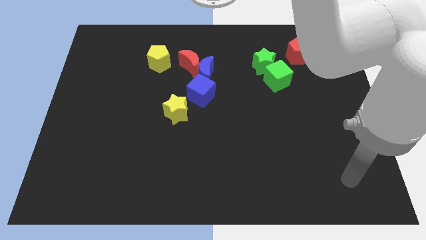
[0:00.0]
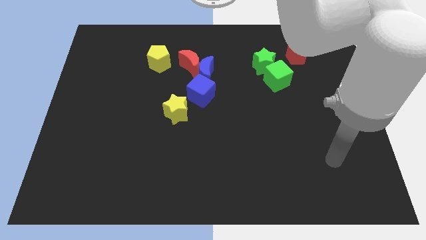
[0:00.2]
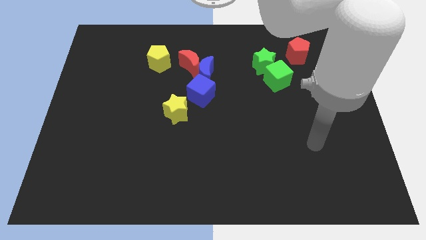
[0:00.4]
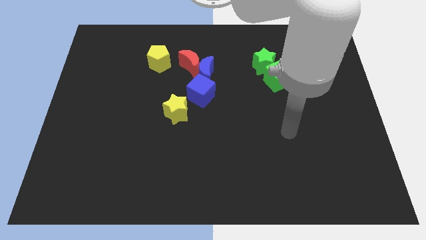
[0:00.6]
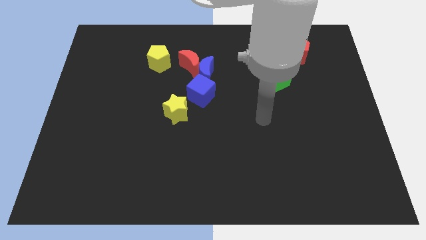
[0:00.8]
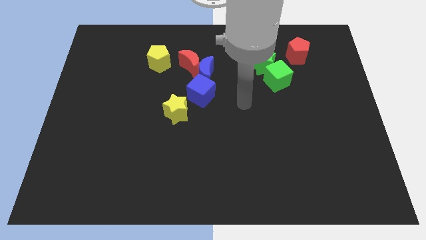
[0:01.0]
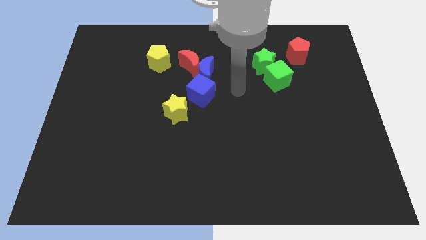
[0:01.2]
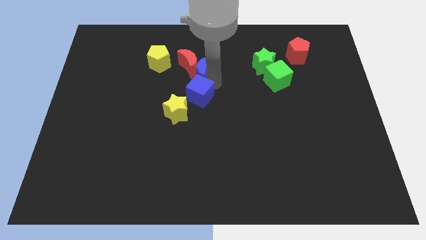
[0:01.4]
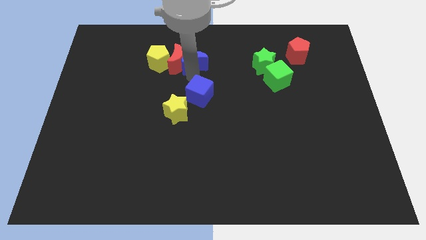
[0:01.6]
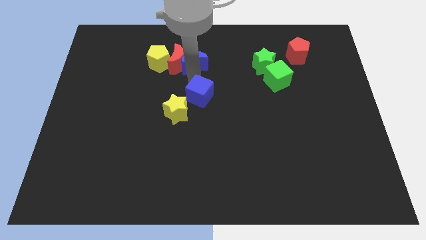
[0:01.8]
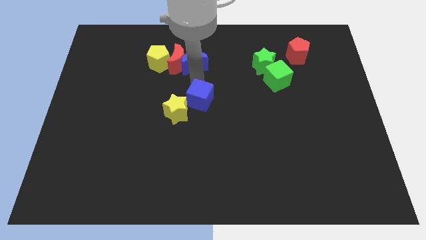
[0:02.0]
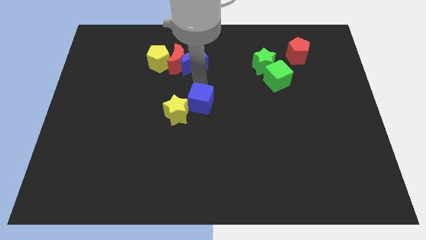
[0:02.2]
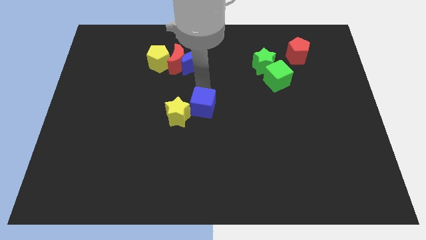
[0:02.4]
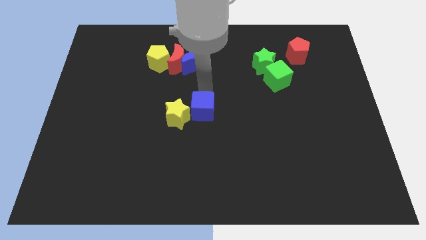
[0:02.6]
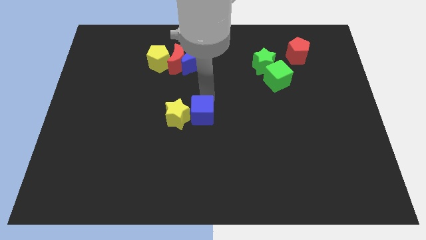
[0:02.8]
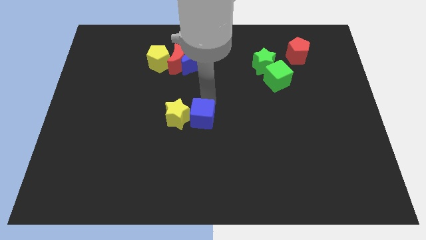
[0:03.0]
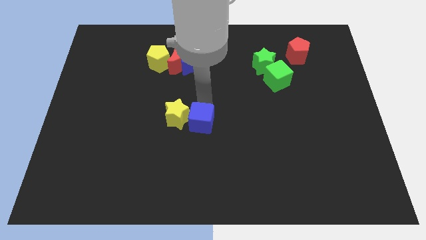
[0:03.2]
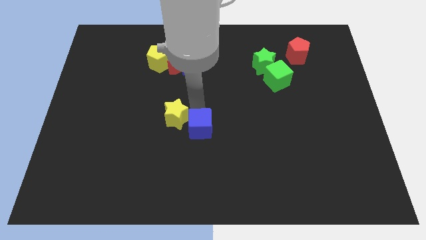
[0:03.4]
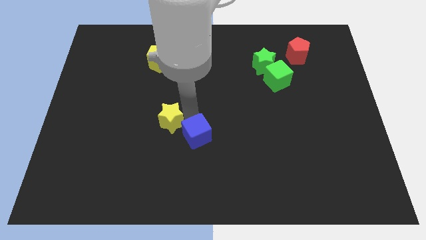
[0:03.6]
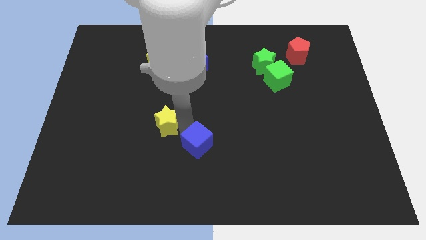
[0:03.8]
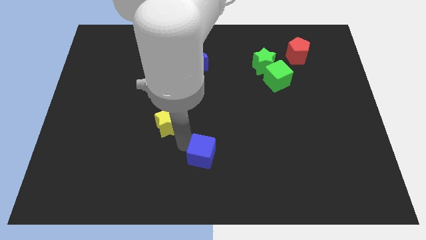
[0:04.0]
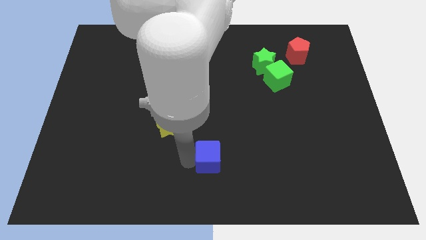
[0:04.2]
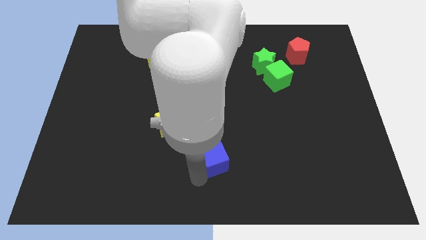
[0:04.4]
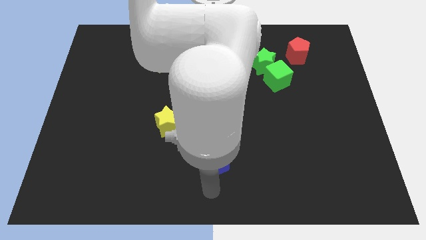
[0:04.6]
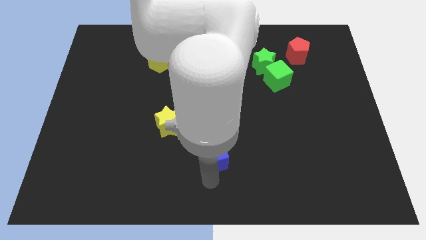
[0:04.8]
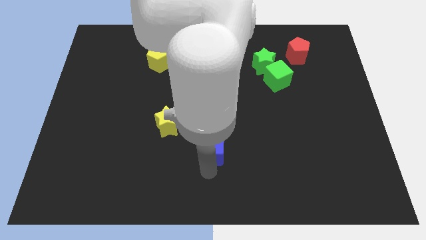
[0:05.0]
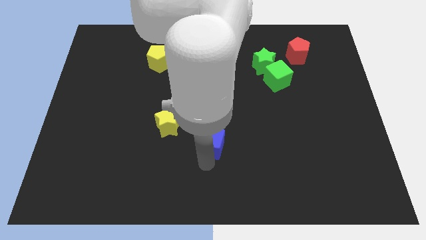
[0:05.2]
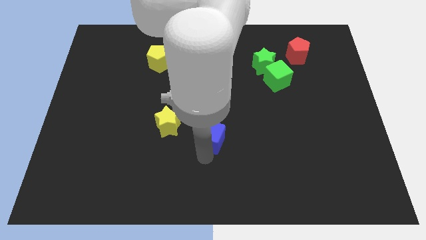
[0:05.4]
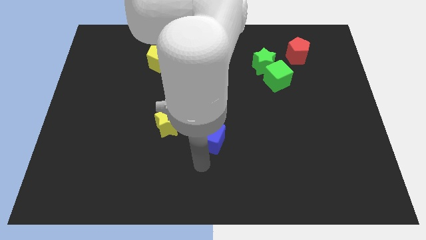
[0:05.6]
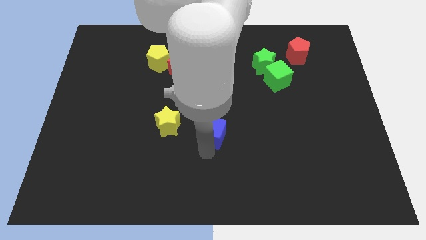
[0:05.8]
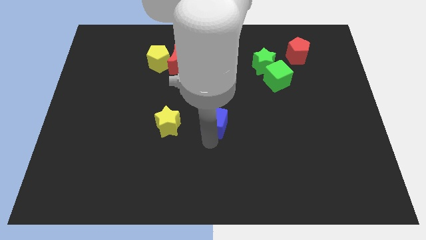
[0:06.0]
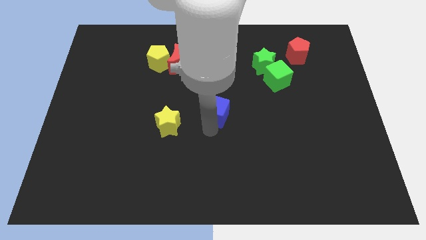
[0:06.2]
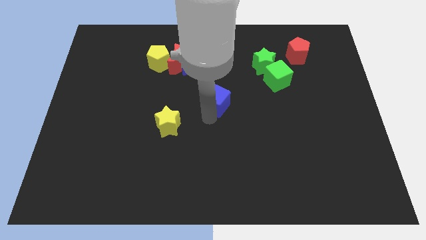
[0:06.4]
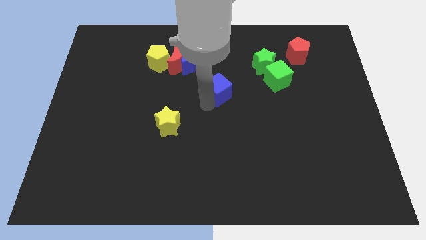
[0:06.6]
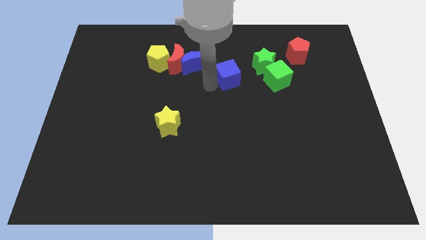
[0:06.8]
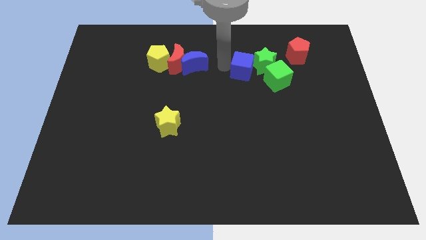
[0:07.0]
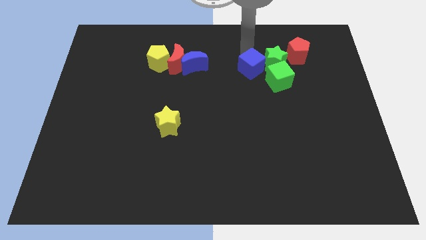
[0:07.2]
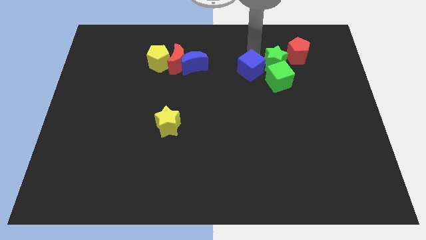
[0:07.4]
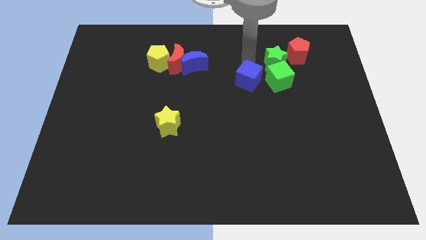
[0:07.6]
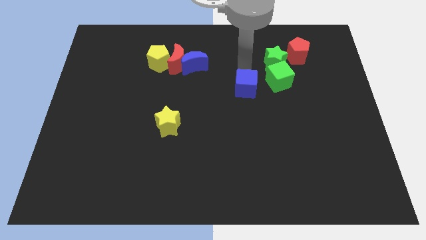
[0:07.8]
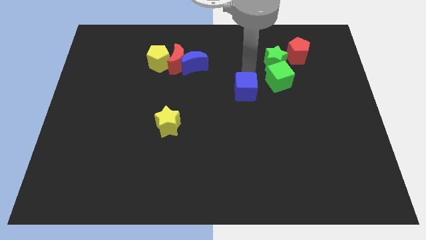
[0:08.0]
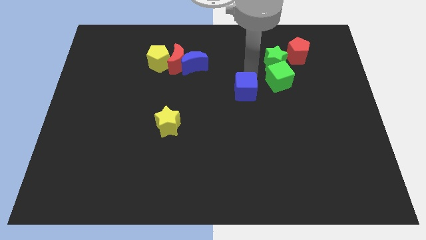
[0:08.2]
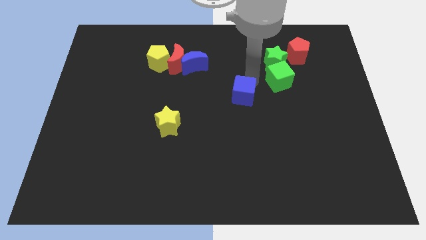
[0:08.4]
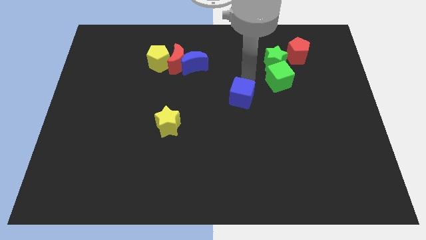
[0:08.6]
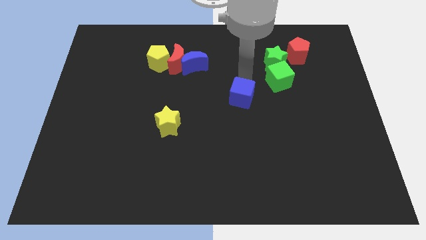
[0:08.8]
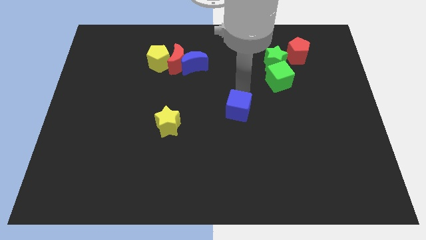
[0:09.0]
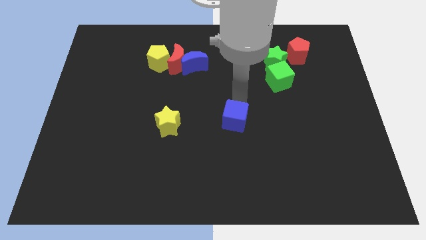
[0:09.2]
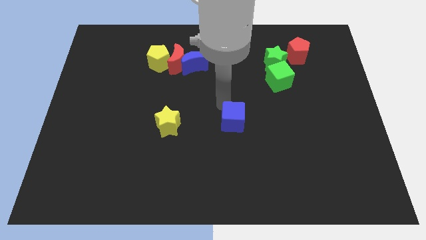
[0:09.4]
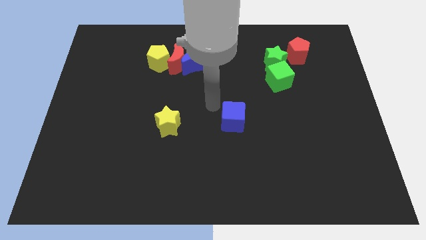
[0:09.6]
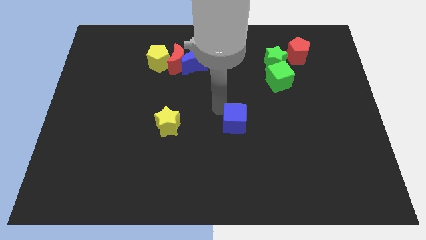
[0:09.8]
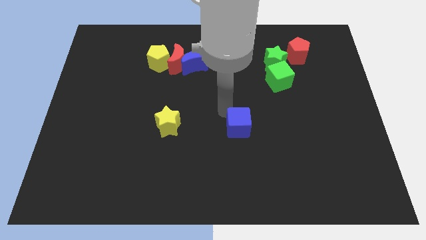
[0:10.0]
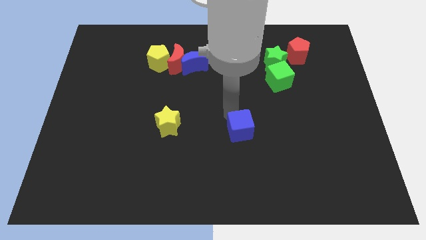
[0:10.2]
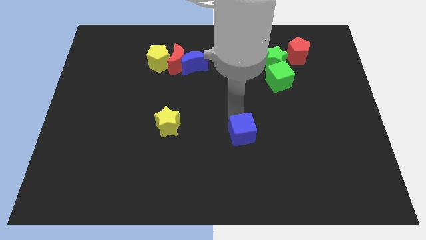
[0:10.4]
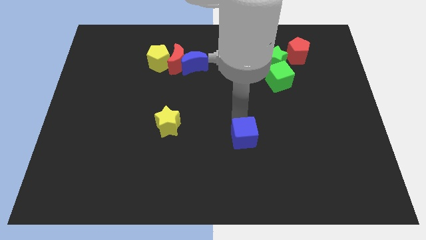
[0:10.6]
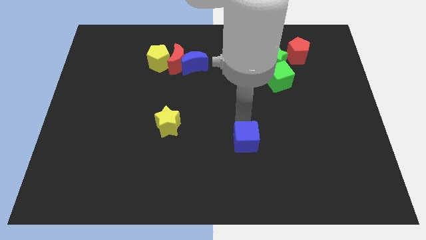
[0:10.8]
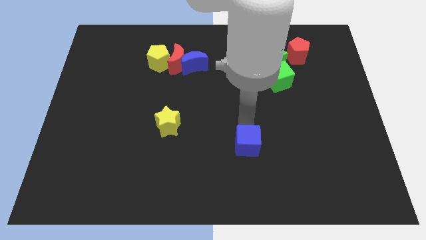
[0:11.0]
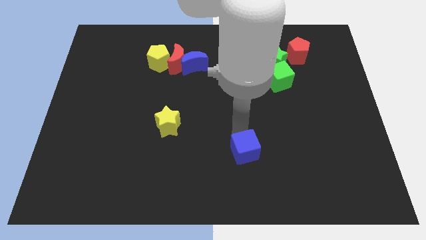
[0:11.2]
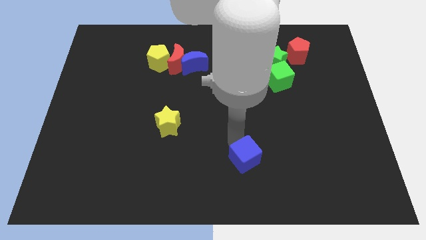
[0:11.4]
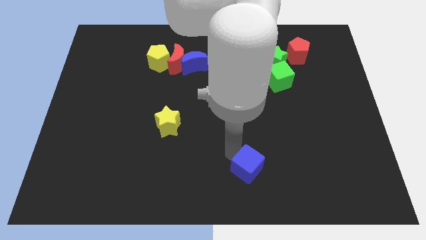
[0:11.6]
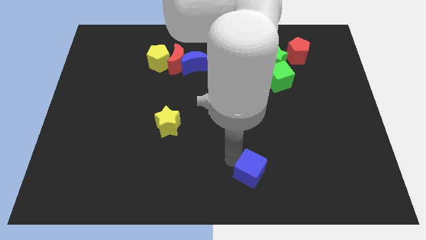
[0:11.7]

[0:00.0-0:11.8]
move the blue cube downwards and to the right

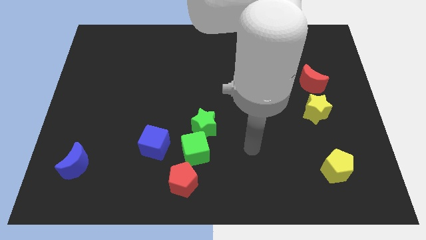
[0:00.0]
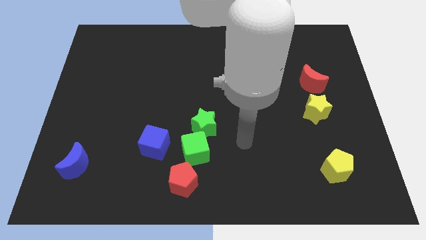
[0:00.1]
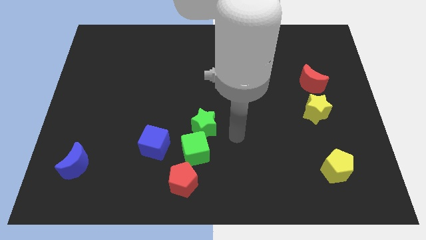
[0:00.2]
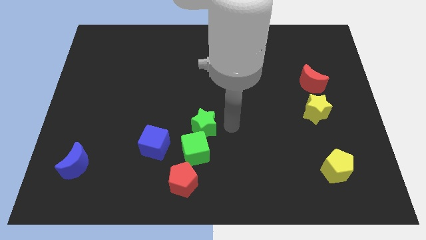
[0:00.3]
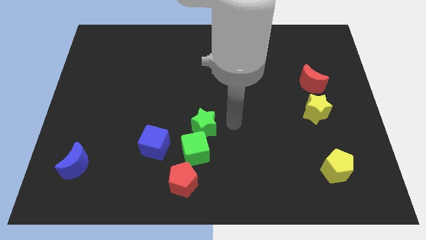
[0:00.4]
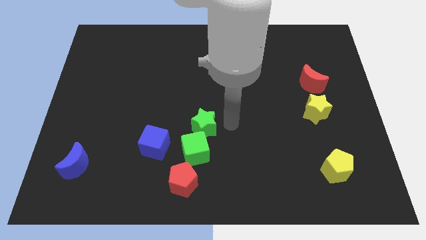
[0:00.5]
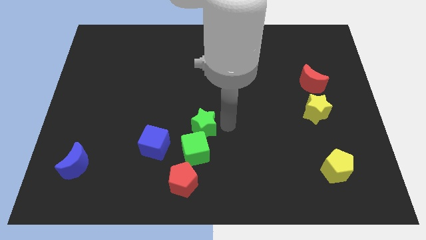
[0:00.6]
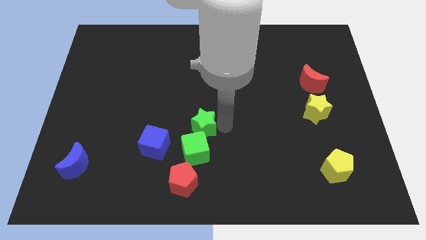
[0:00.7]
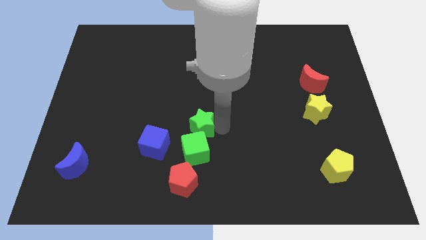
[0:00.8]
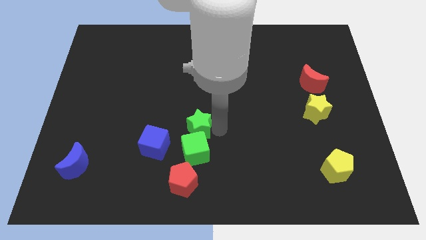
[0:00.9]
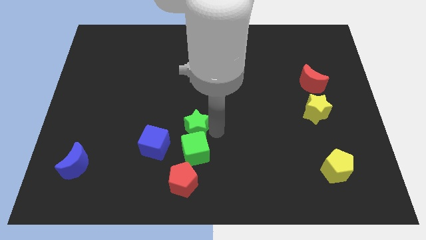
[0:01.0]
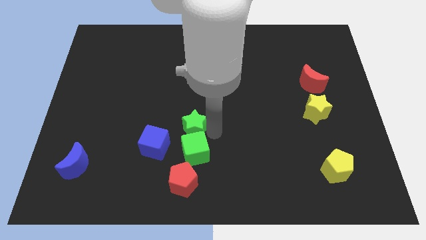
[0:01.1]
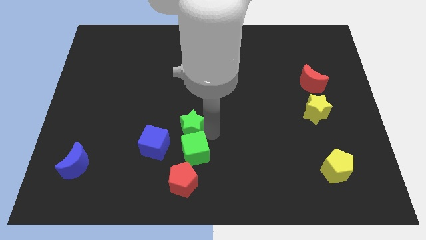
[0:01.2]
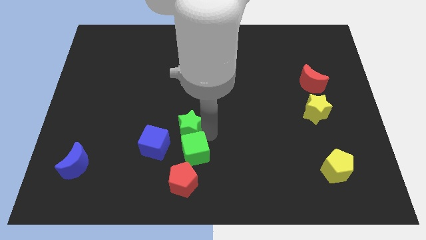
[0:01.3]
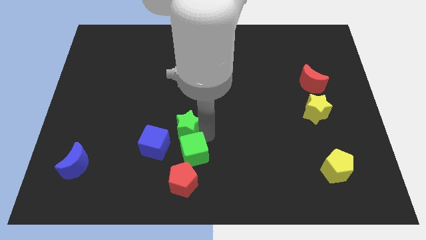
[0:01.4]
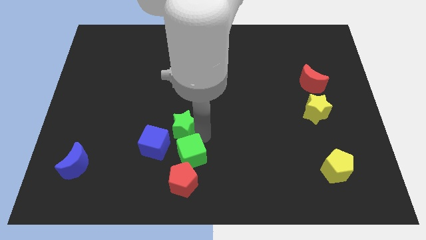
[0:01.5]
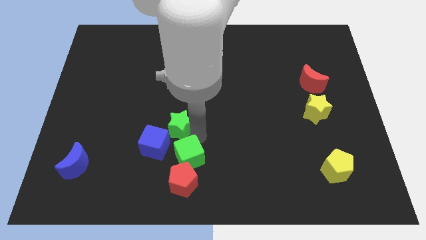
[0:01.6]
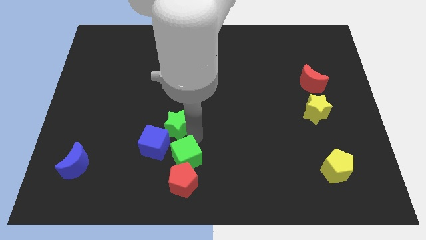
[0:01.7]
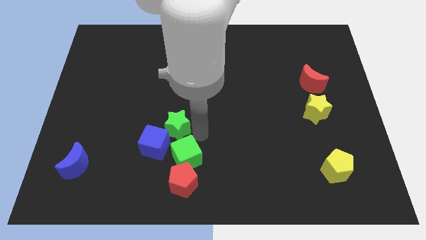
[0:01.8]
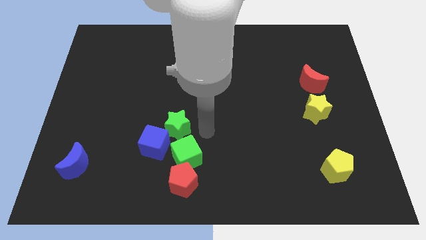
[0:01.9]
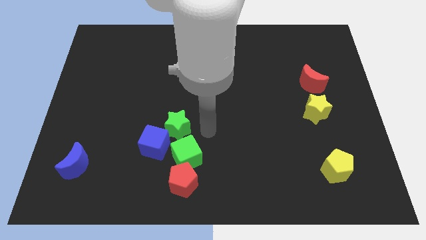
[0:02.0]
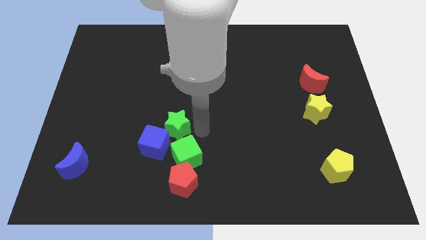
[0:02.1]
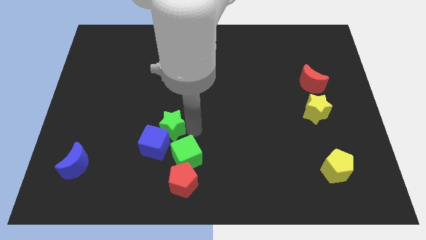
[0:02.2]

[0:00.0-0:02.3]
slide the green star a bit to the left
